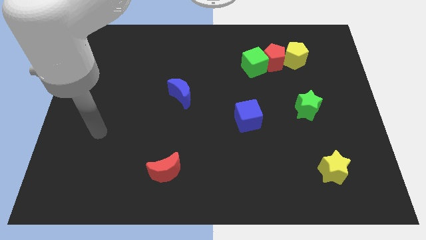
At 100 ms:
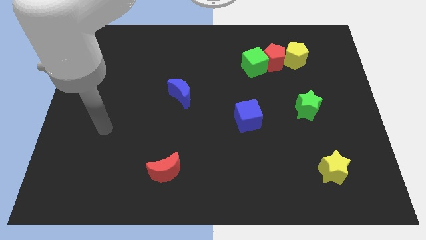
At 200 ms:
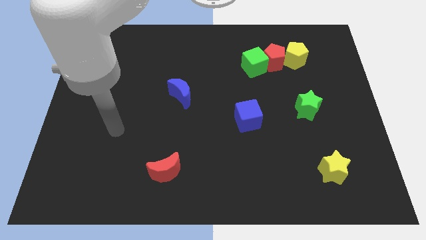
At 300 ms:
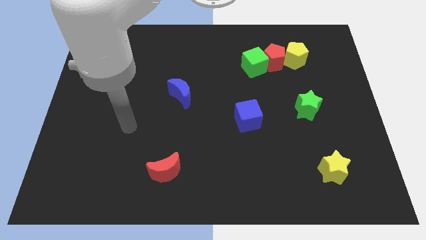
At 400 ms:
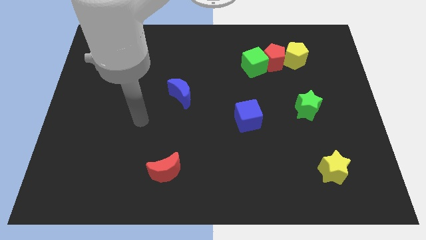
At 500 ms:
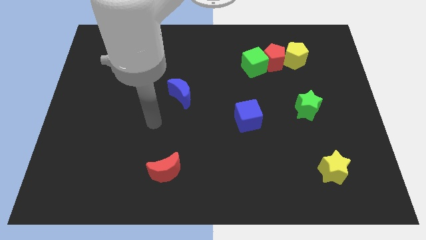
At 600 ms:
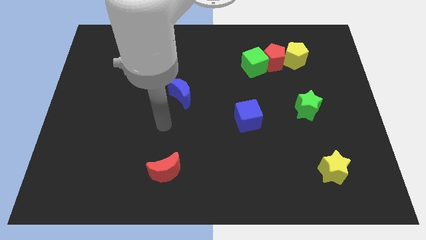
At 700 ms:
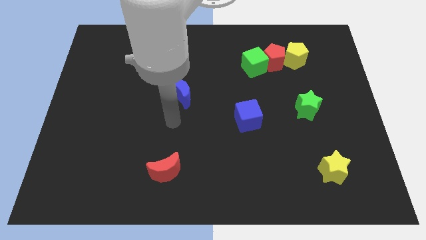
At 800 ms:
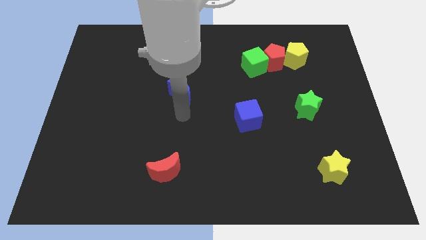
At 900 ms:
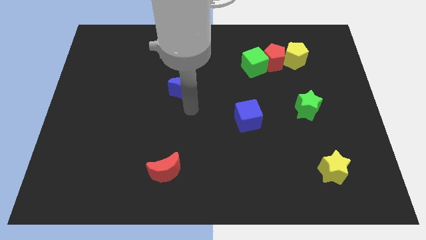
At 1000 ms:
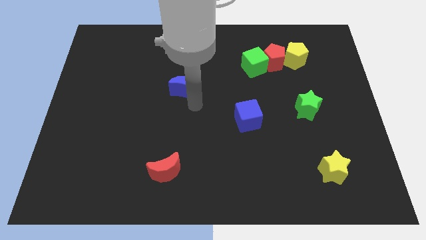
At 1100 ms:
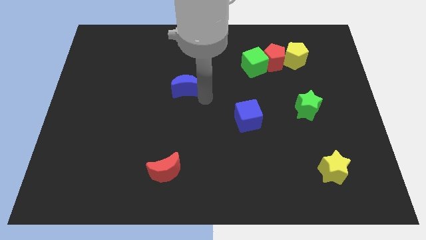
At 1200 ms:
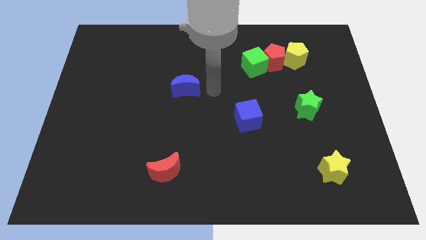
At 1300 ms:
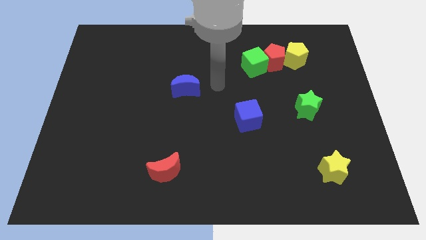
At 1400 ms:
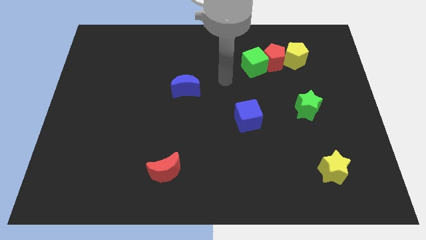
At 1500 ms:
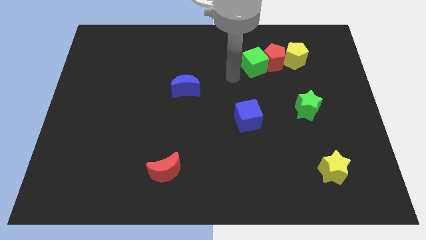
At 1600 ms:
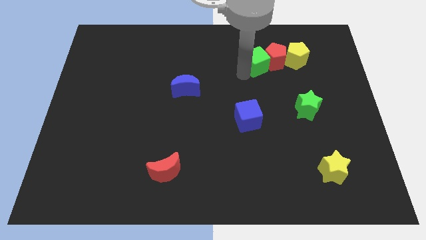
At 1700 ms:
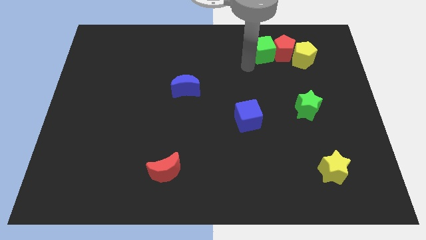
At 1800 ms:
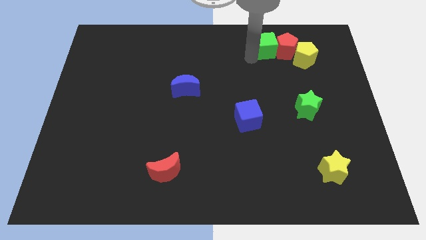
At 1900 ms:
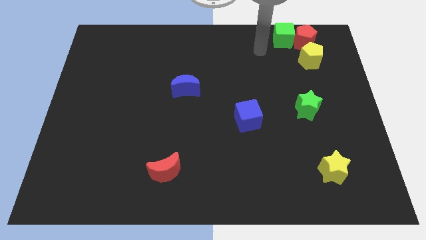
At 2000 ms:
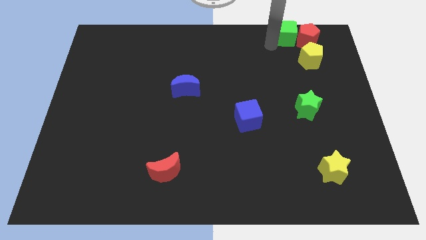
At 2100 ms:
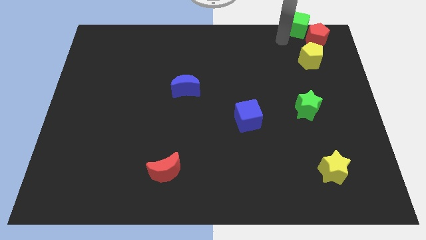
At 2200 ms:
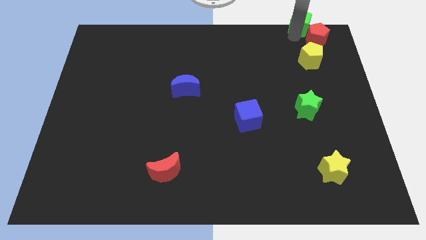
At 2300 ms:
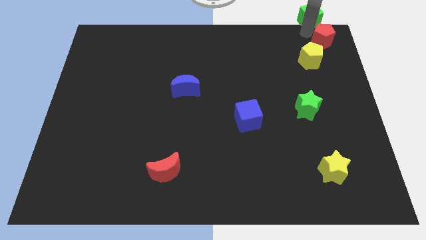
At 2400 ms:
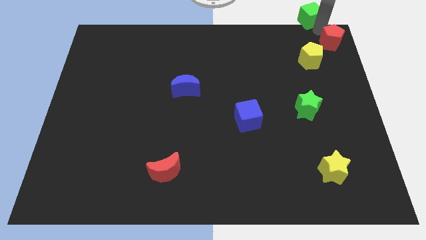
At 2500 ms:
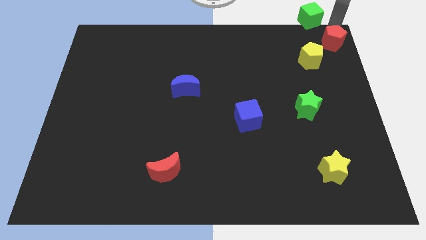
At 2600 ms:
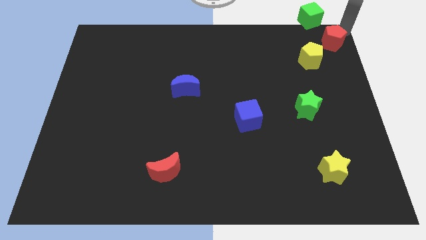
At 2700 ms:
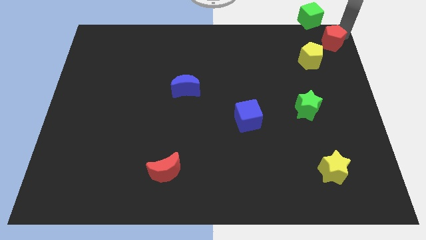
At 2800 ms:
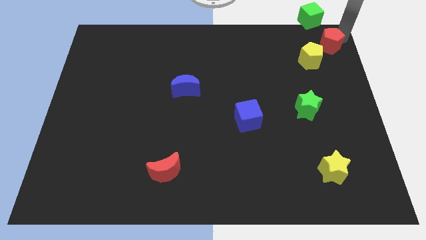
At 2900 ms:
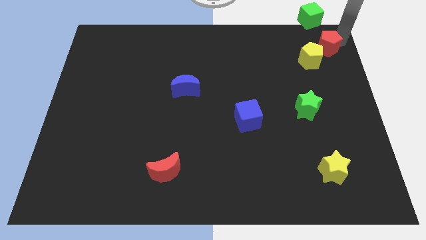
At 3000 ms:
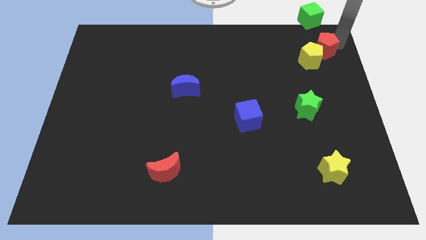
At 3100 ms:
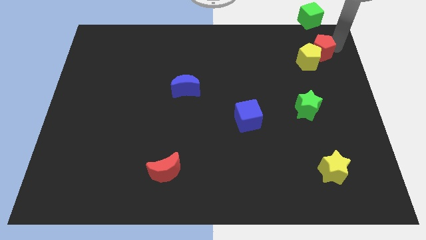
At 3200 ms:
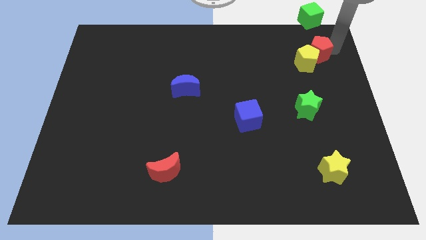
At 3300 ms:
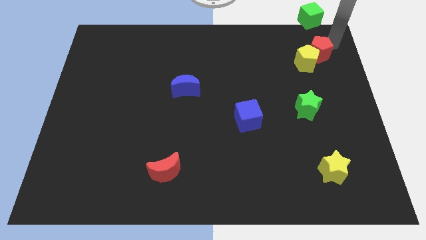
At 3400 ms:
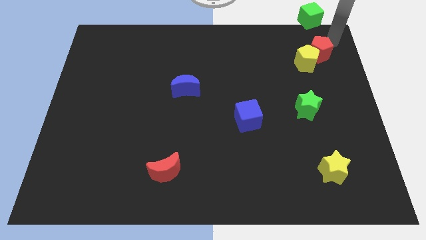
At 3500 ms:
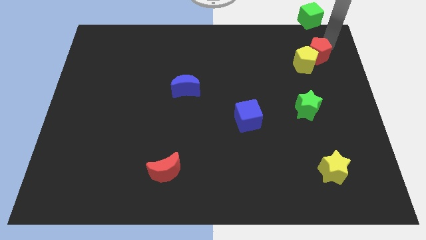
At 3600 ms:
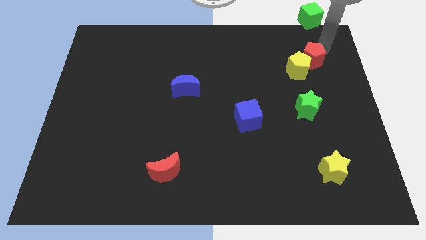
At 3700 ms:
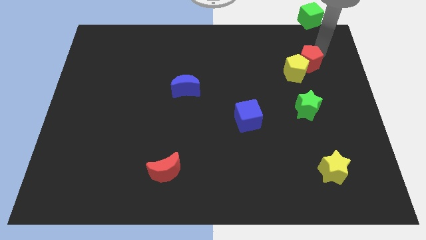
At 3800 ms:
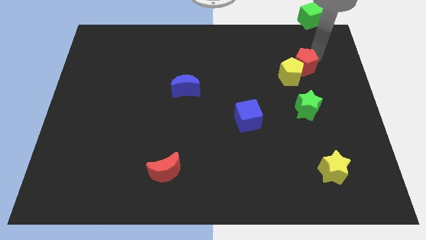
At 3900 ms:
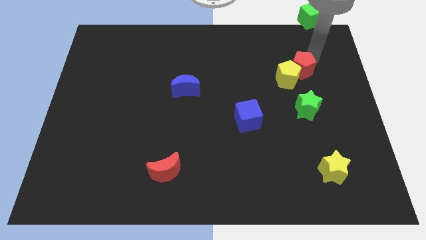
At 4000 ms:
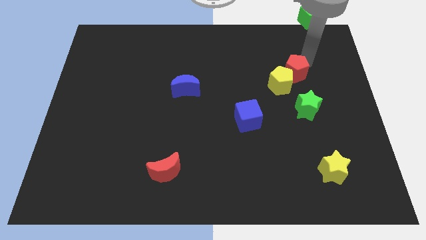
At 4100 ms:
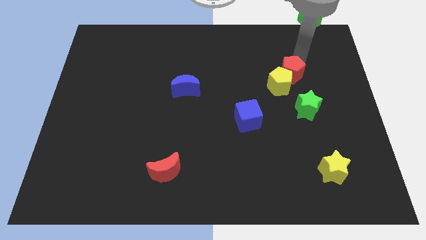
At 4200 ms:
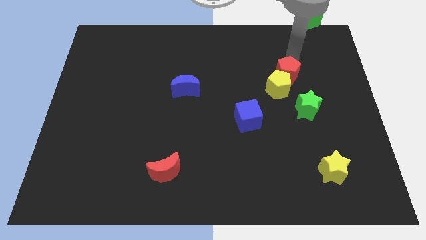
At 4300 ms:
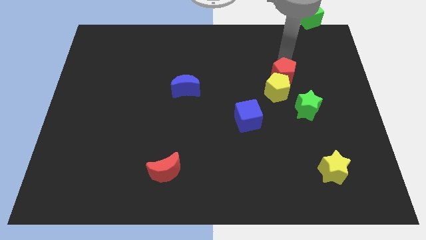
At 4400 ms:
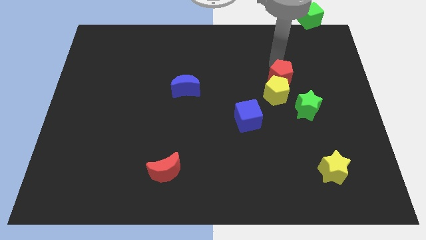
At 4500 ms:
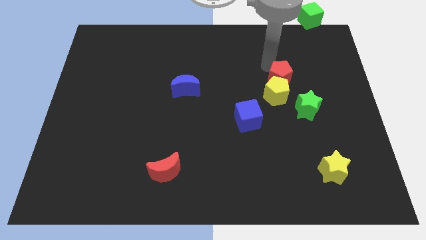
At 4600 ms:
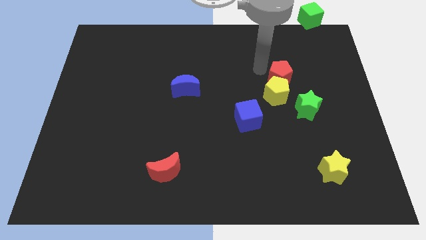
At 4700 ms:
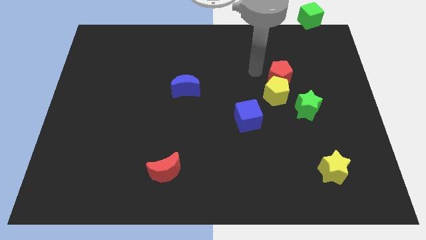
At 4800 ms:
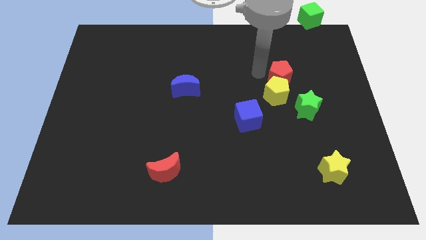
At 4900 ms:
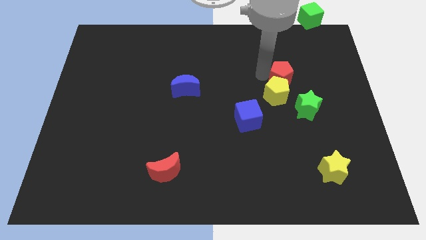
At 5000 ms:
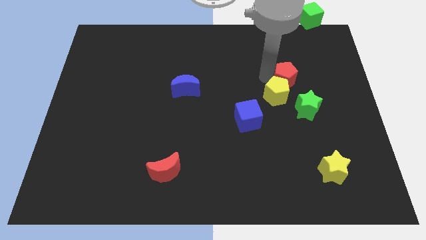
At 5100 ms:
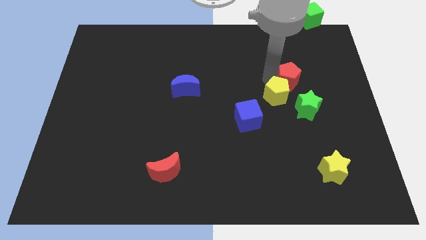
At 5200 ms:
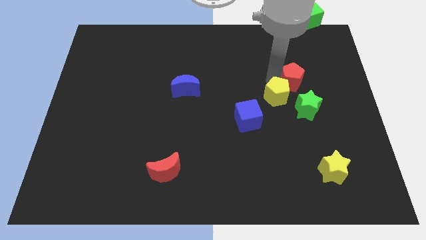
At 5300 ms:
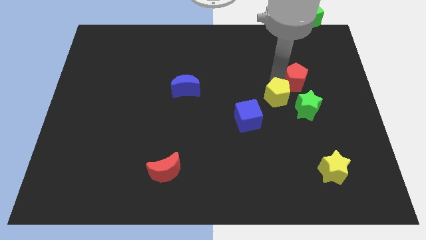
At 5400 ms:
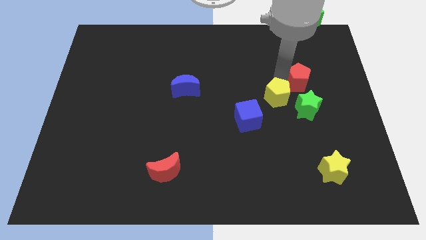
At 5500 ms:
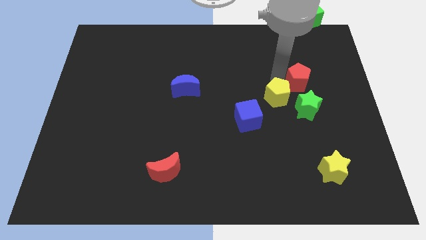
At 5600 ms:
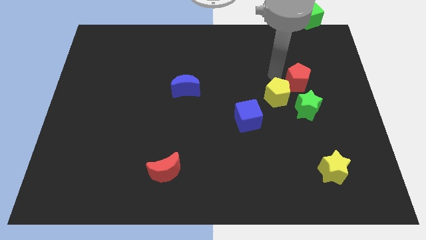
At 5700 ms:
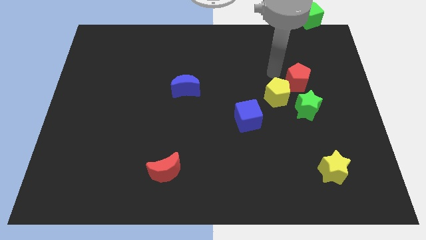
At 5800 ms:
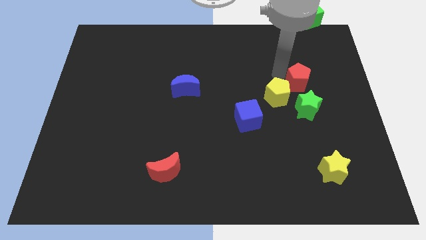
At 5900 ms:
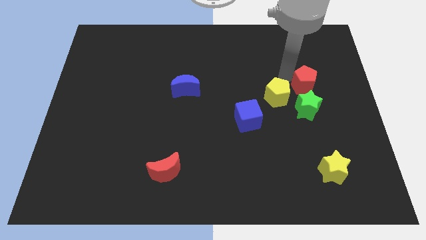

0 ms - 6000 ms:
move the red pentagon diagonally up and to the right of the green star

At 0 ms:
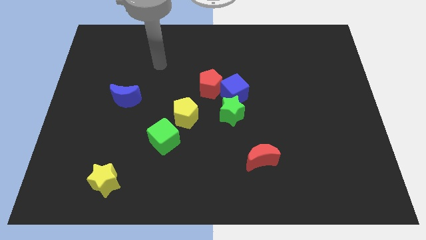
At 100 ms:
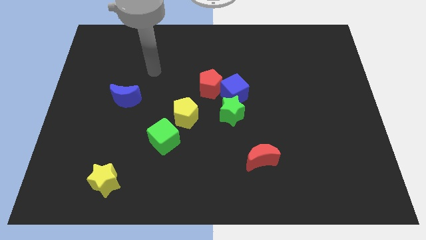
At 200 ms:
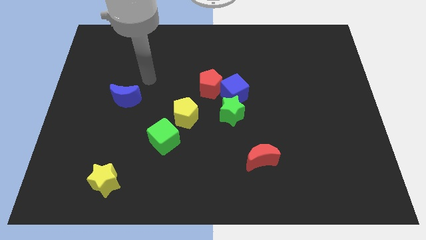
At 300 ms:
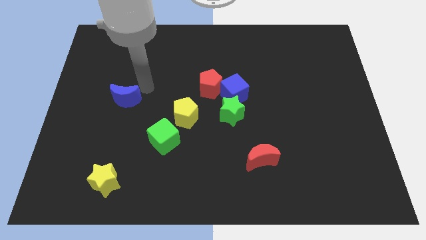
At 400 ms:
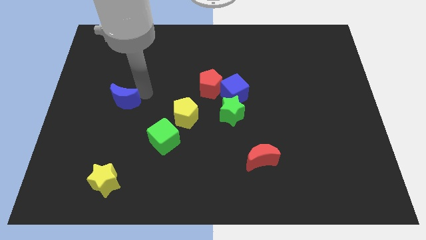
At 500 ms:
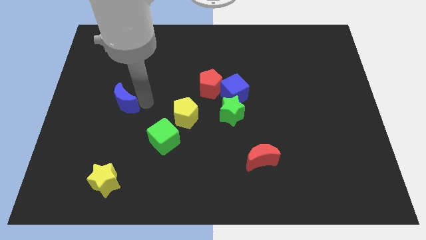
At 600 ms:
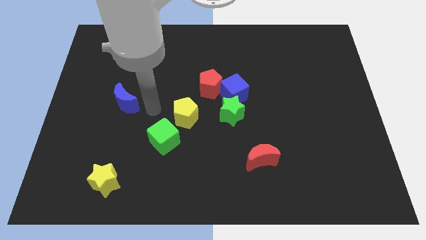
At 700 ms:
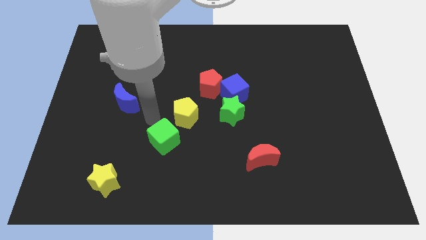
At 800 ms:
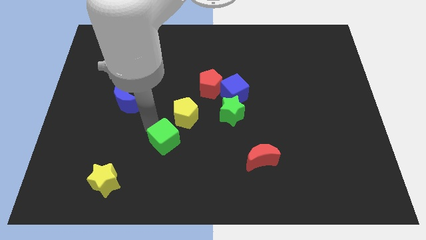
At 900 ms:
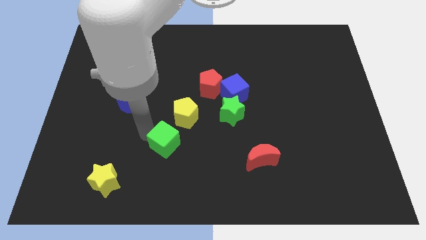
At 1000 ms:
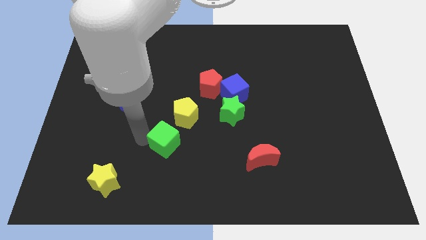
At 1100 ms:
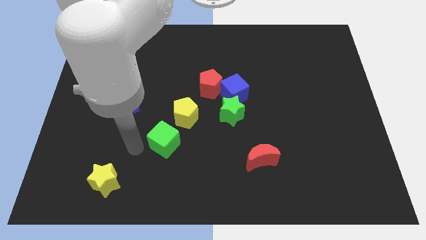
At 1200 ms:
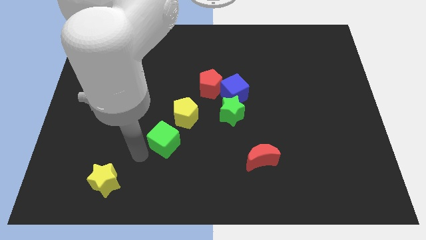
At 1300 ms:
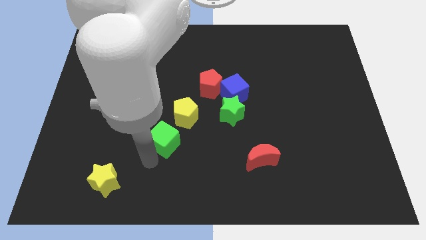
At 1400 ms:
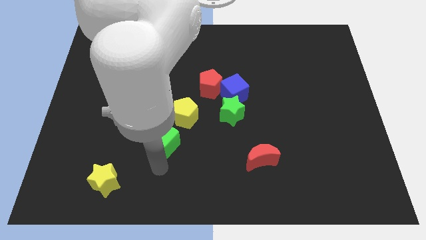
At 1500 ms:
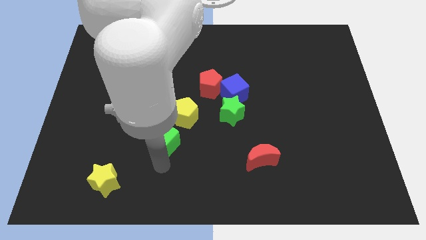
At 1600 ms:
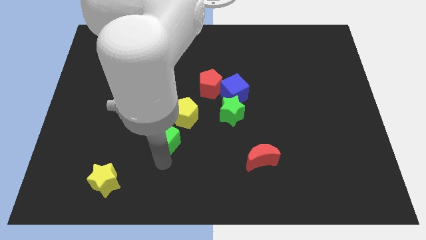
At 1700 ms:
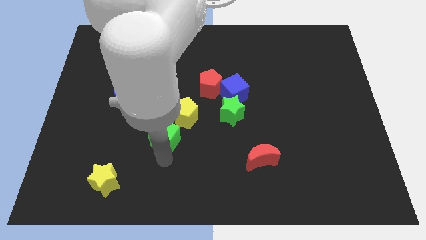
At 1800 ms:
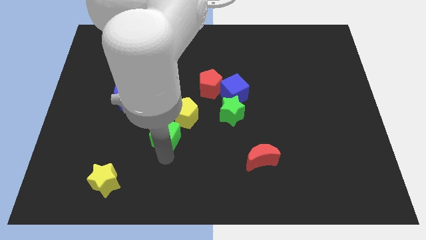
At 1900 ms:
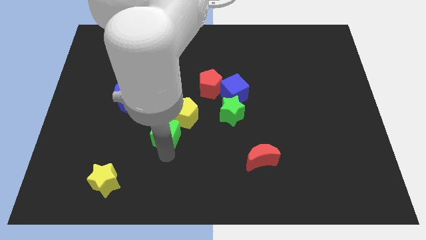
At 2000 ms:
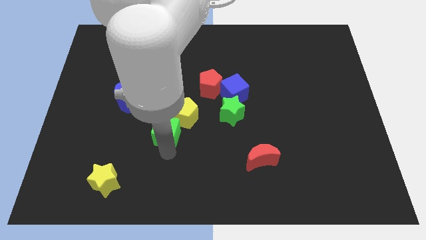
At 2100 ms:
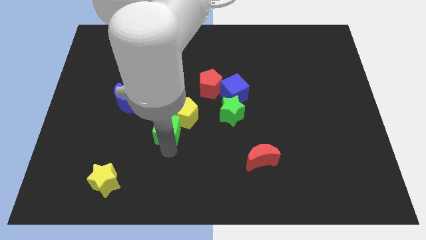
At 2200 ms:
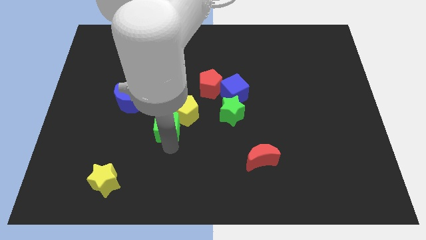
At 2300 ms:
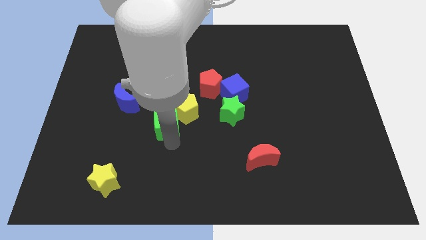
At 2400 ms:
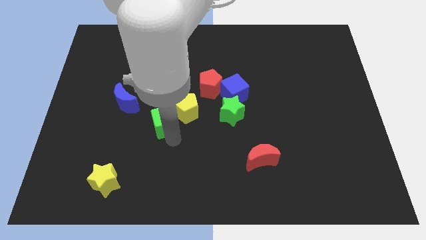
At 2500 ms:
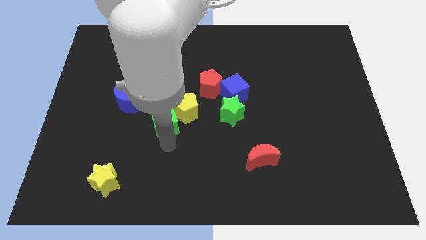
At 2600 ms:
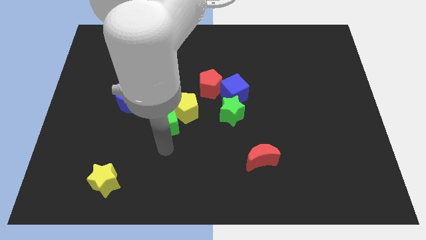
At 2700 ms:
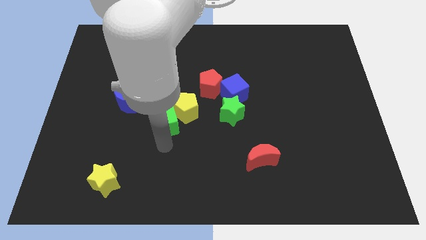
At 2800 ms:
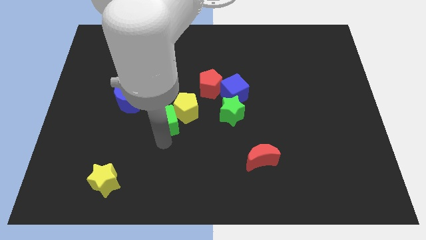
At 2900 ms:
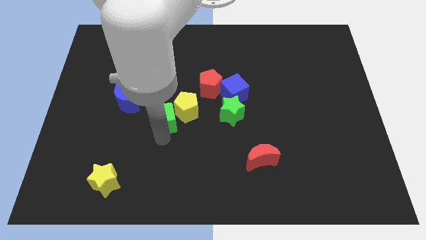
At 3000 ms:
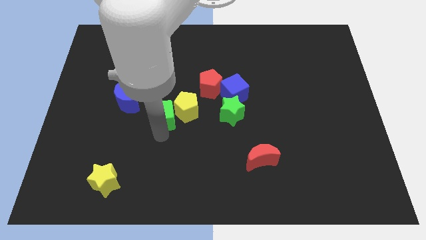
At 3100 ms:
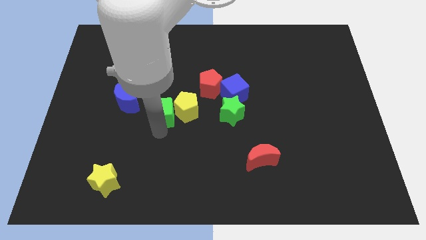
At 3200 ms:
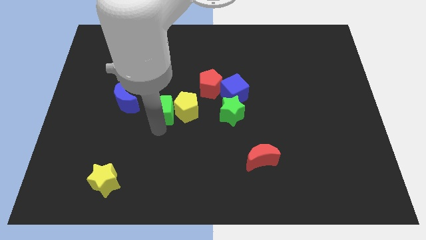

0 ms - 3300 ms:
push the green cube diagonally up and to the left of the yellow pentagon

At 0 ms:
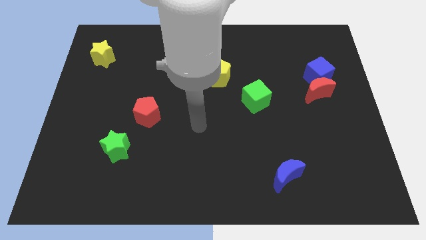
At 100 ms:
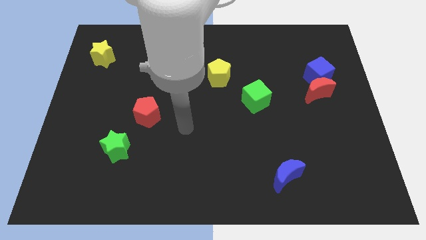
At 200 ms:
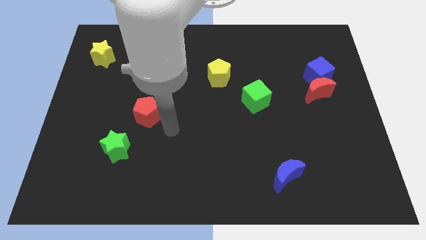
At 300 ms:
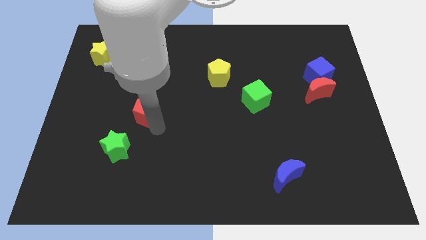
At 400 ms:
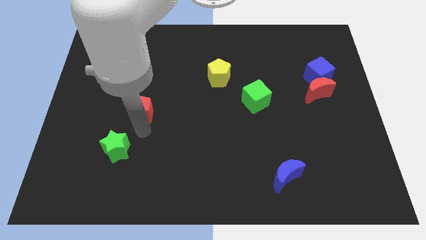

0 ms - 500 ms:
push the green star to the bottom of the red pentagon
